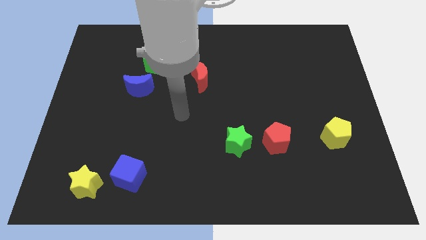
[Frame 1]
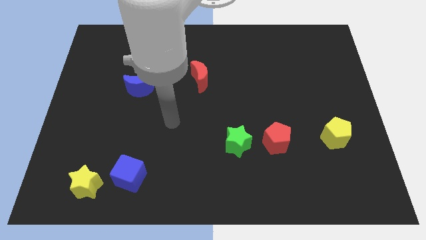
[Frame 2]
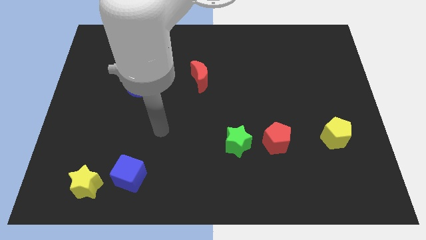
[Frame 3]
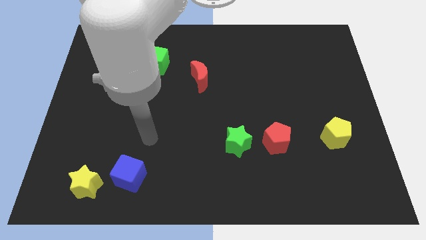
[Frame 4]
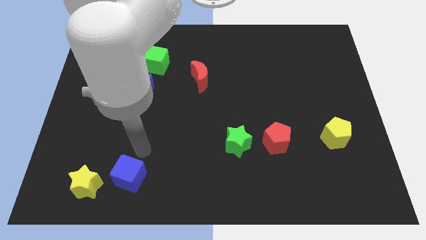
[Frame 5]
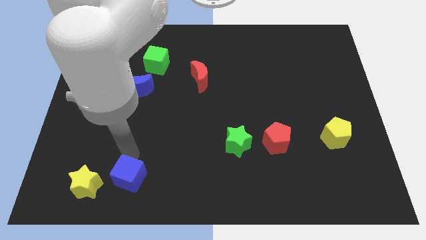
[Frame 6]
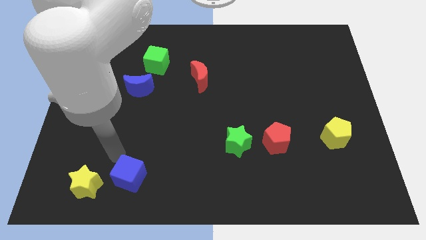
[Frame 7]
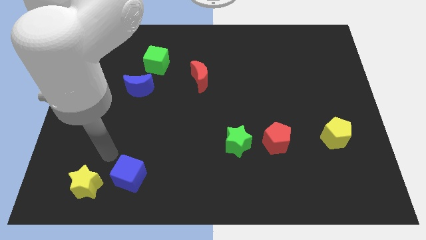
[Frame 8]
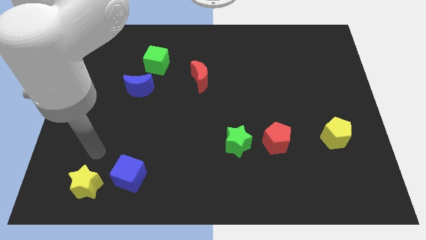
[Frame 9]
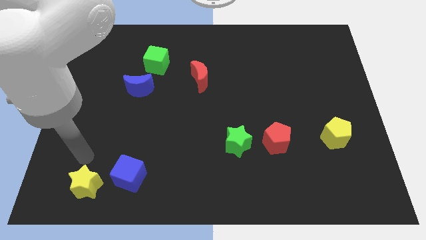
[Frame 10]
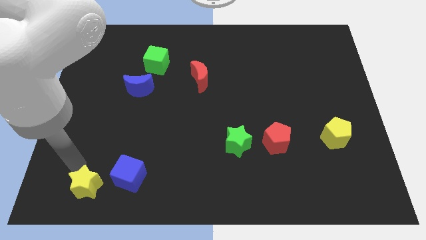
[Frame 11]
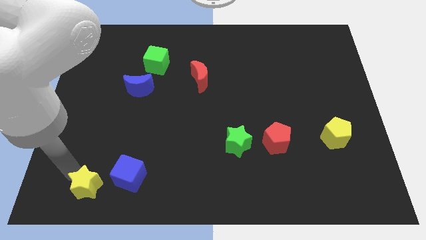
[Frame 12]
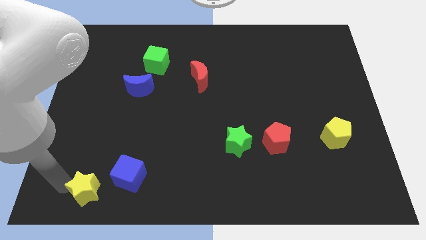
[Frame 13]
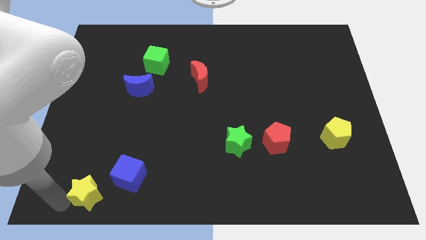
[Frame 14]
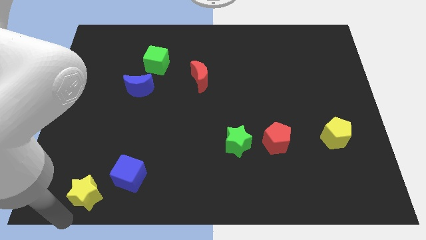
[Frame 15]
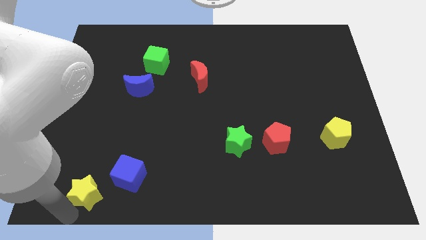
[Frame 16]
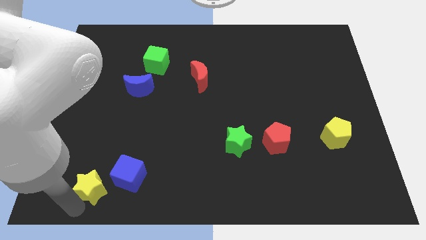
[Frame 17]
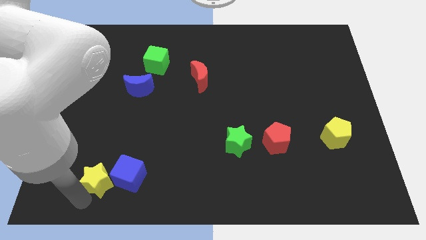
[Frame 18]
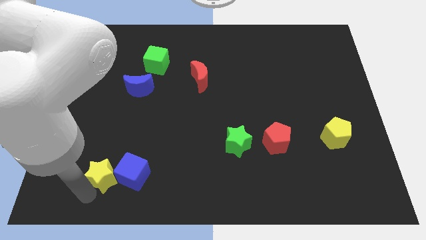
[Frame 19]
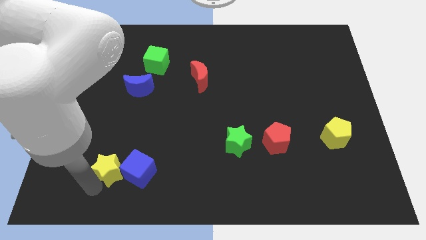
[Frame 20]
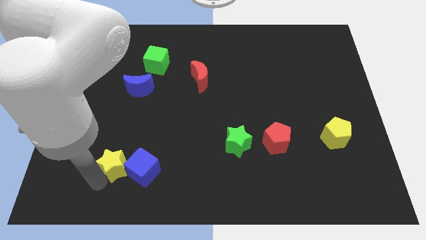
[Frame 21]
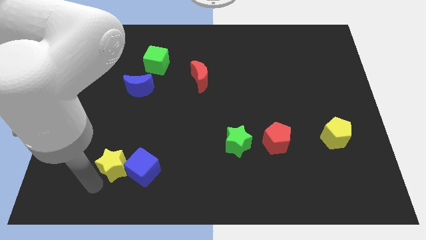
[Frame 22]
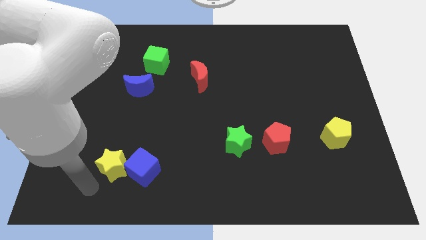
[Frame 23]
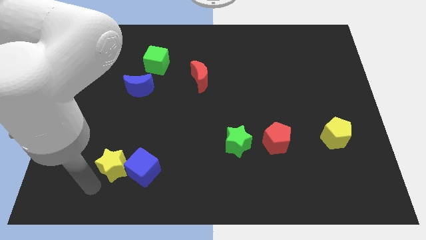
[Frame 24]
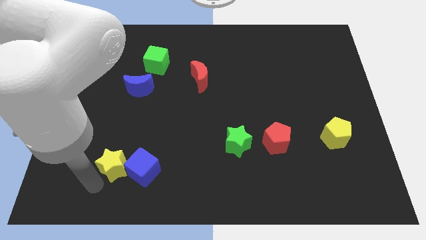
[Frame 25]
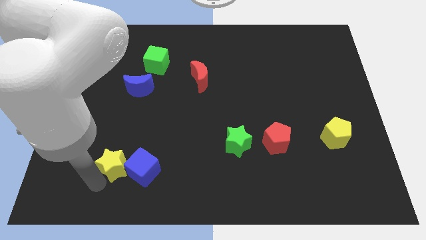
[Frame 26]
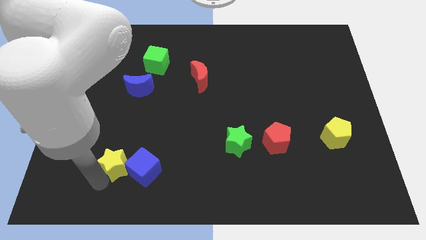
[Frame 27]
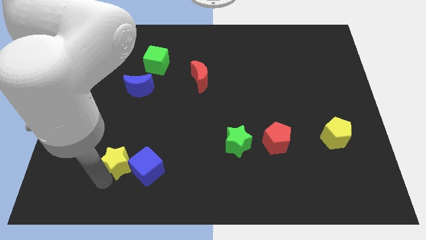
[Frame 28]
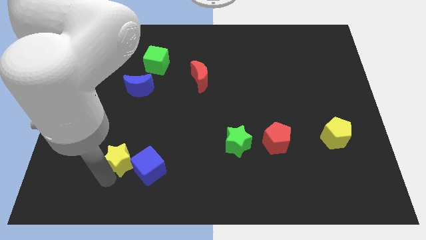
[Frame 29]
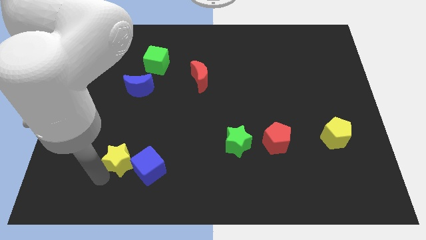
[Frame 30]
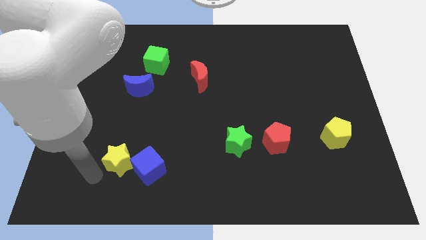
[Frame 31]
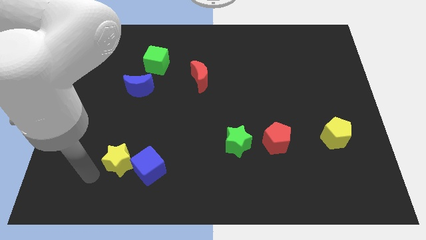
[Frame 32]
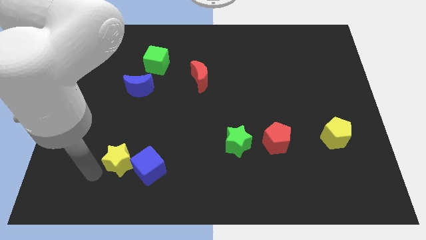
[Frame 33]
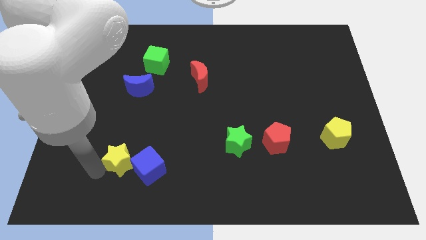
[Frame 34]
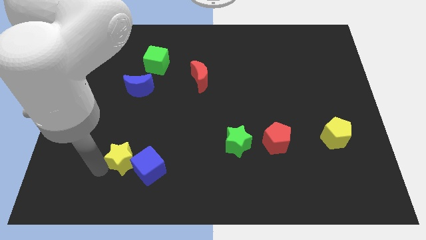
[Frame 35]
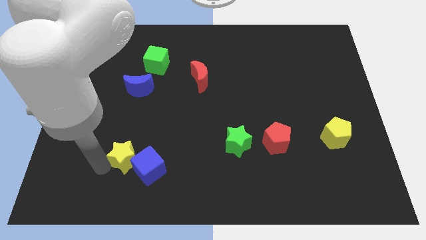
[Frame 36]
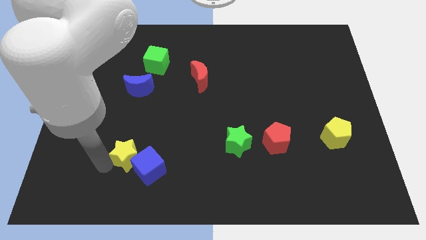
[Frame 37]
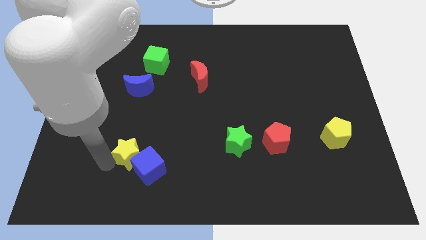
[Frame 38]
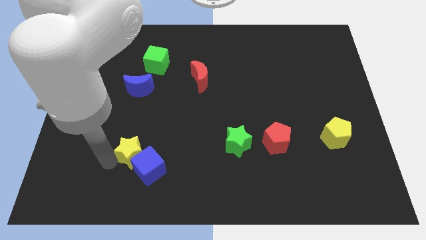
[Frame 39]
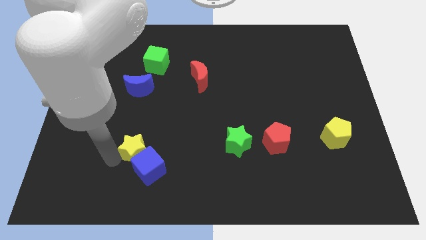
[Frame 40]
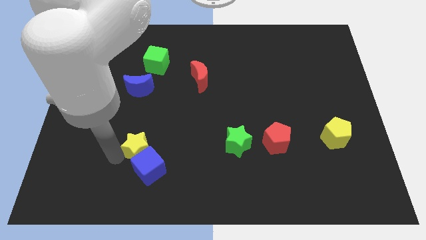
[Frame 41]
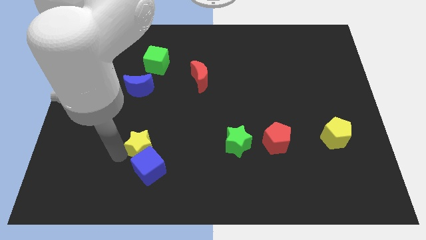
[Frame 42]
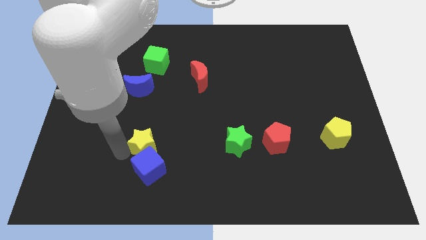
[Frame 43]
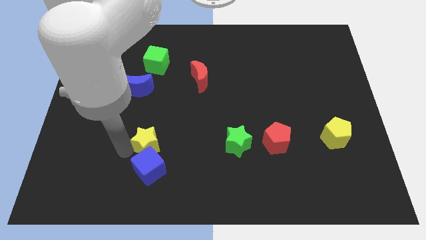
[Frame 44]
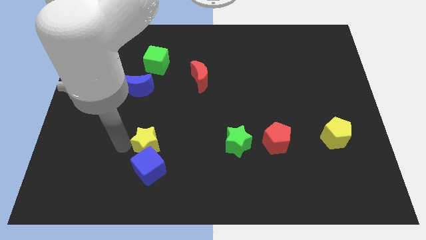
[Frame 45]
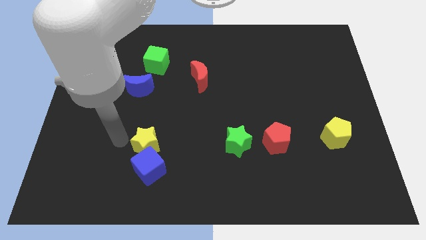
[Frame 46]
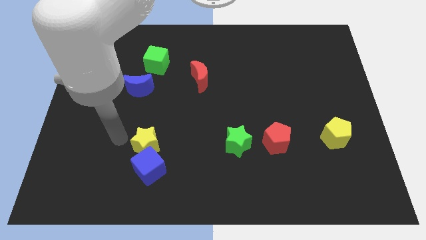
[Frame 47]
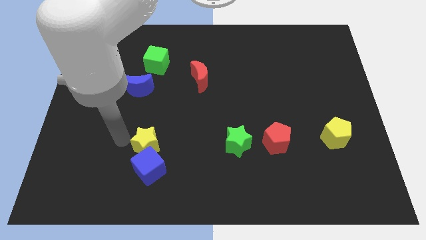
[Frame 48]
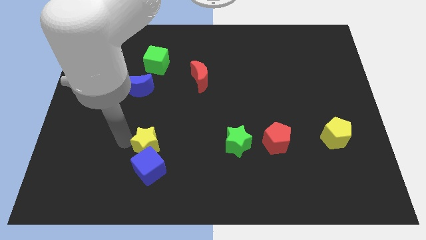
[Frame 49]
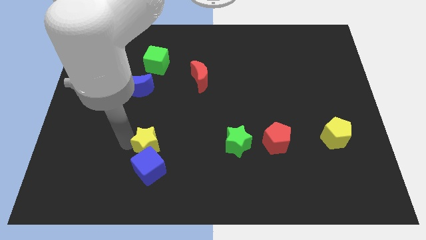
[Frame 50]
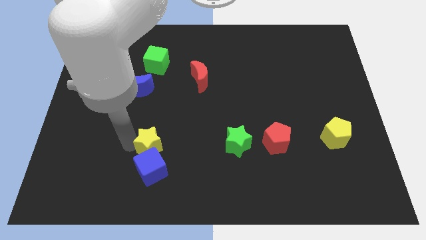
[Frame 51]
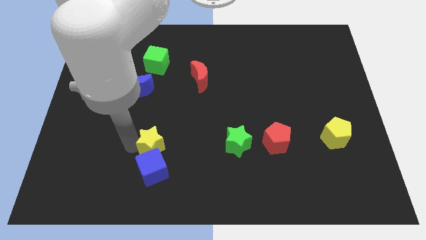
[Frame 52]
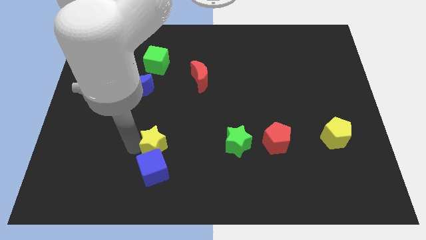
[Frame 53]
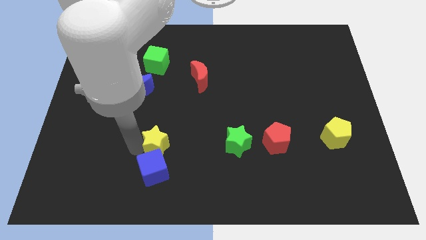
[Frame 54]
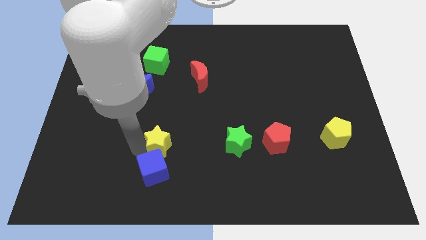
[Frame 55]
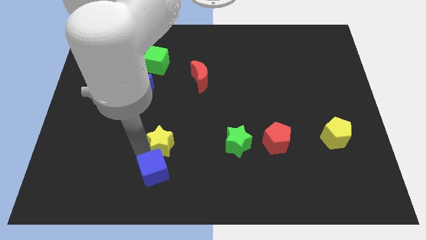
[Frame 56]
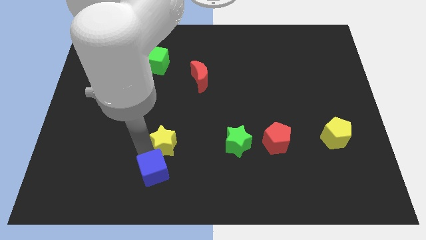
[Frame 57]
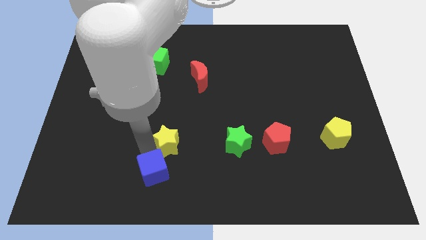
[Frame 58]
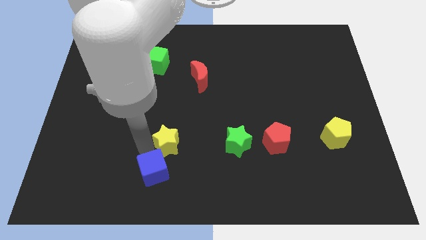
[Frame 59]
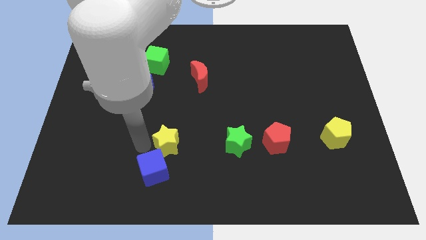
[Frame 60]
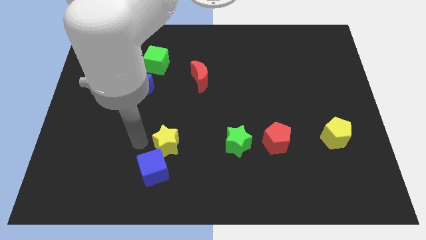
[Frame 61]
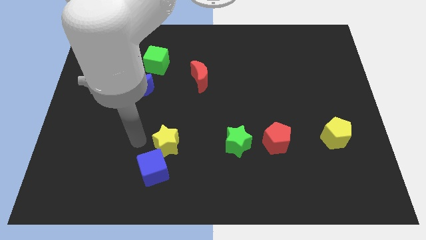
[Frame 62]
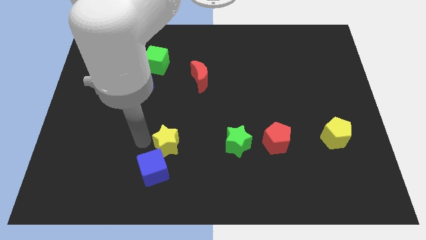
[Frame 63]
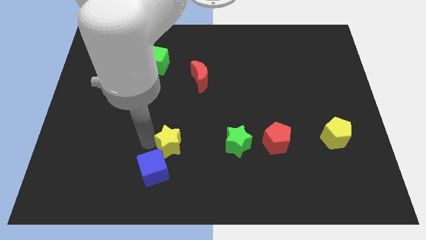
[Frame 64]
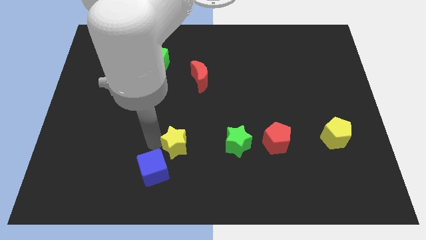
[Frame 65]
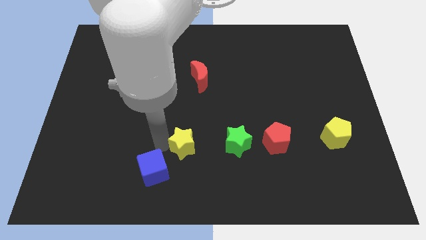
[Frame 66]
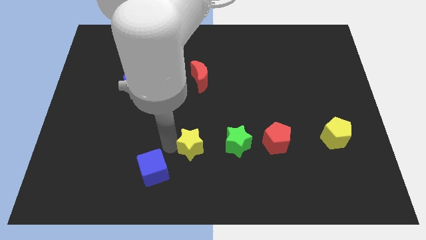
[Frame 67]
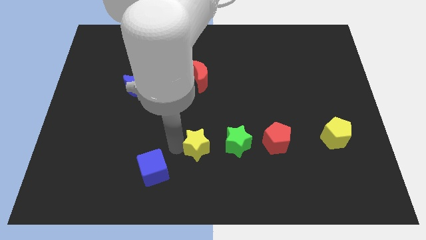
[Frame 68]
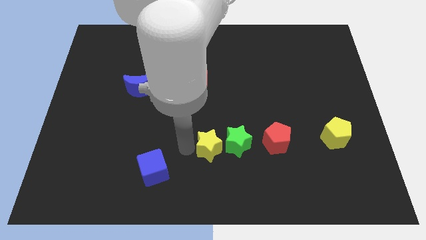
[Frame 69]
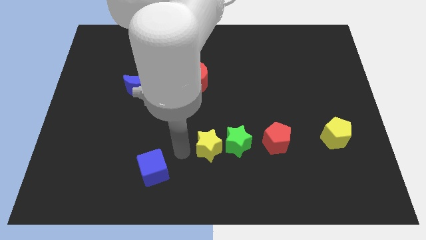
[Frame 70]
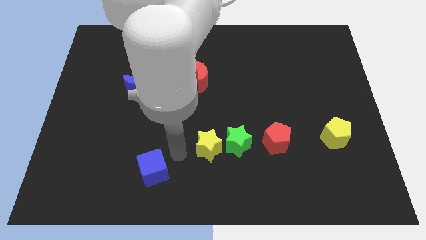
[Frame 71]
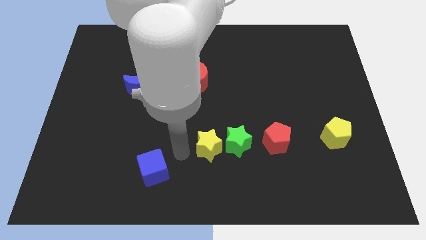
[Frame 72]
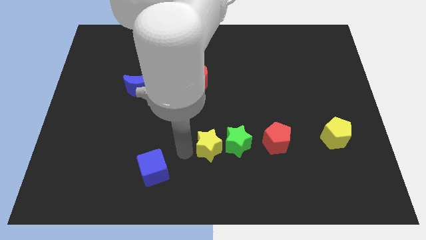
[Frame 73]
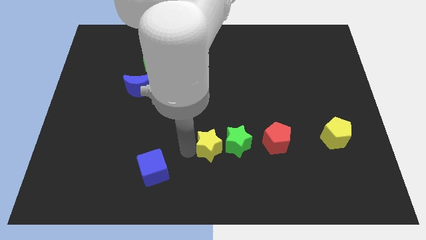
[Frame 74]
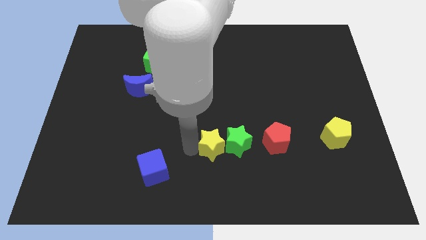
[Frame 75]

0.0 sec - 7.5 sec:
put the yellow star to the green star
